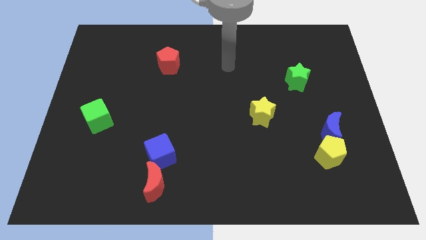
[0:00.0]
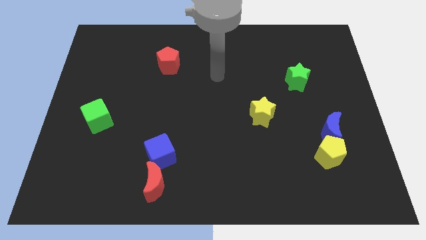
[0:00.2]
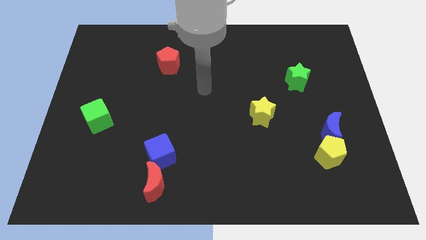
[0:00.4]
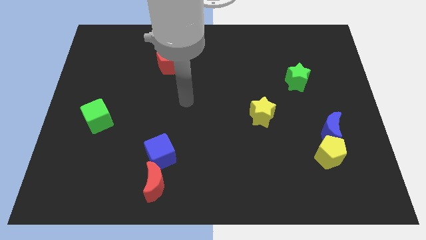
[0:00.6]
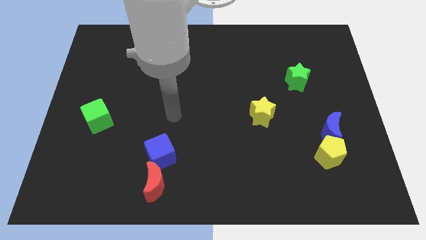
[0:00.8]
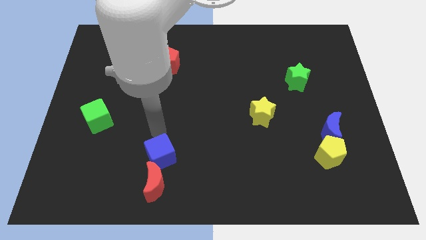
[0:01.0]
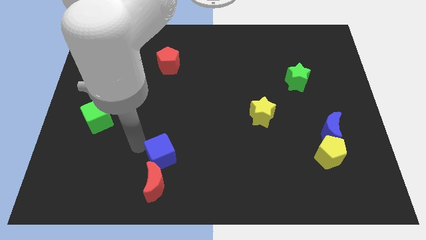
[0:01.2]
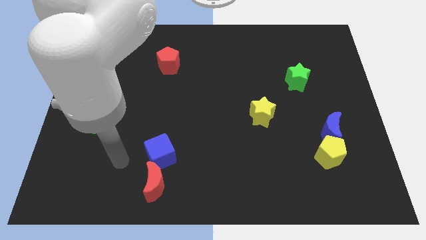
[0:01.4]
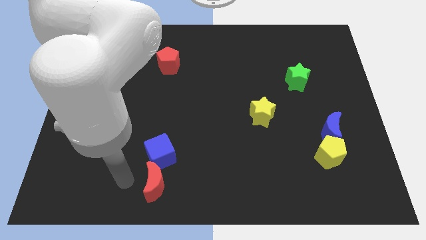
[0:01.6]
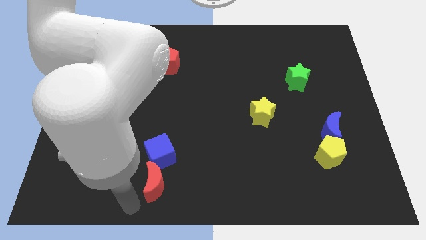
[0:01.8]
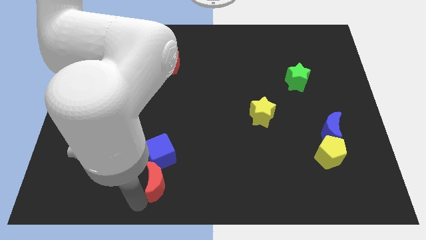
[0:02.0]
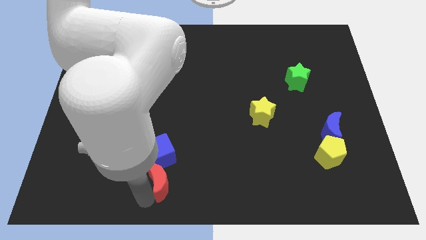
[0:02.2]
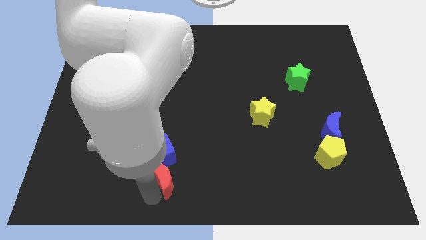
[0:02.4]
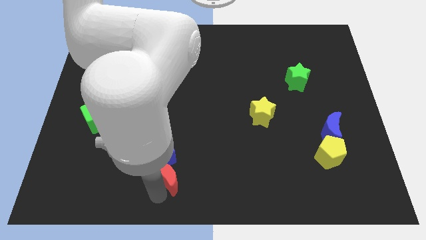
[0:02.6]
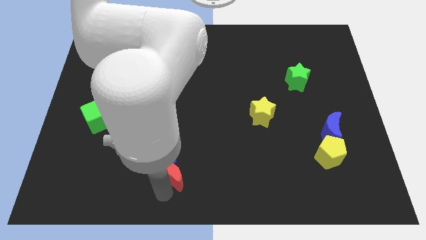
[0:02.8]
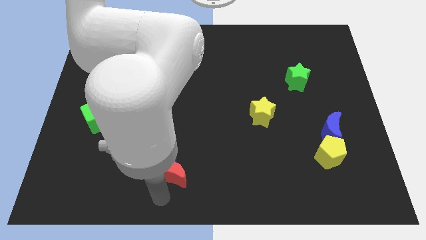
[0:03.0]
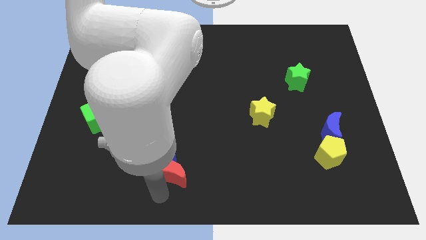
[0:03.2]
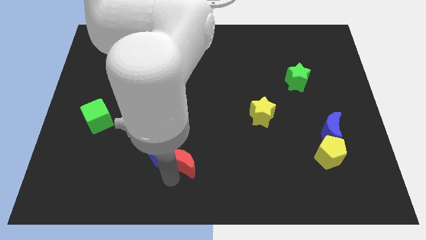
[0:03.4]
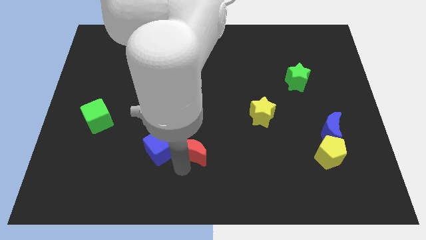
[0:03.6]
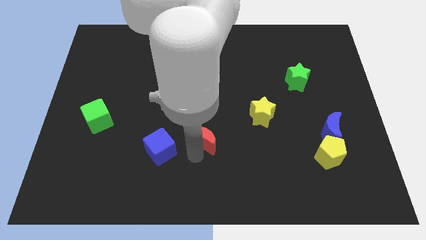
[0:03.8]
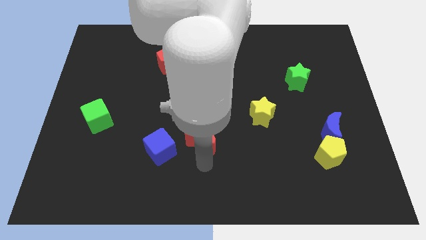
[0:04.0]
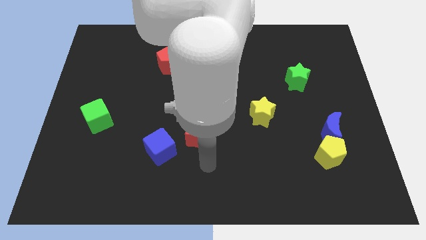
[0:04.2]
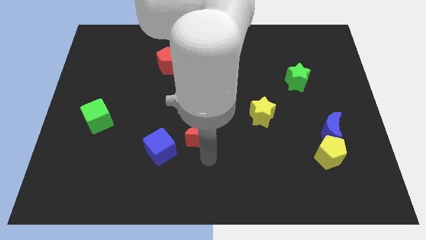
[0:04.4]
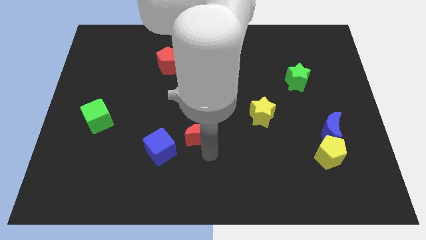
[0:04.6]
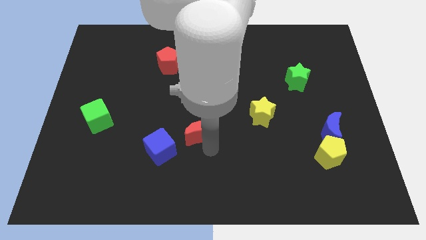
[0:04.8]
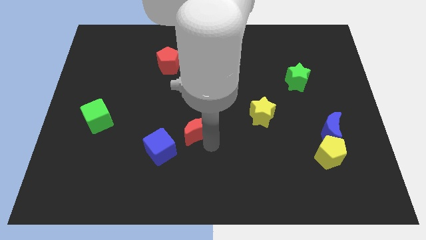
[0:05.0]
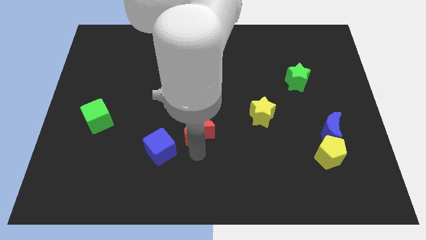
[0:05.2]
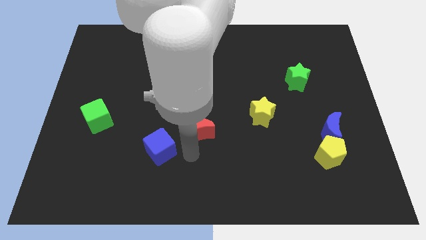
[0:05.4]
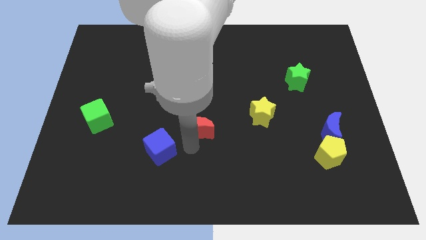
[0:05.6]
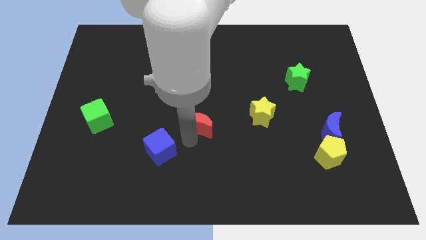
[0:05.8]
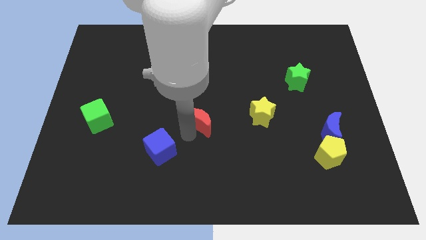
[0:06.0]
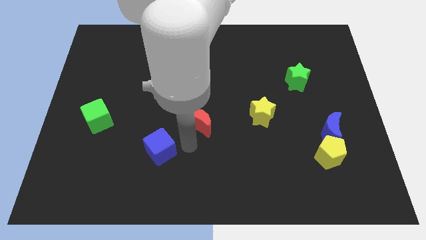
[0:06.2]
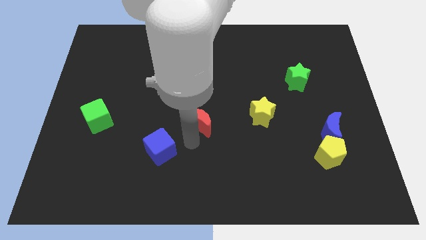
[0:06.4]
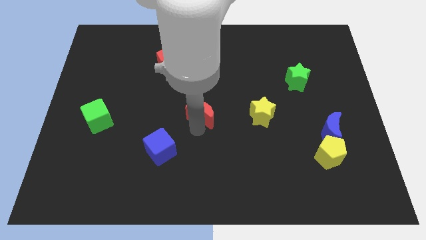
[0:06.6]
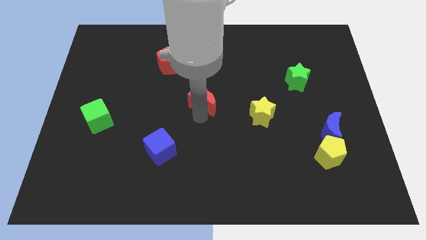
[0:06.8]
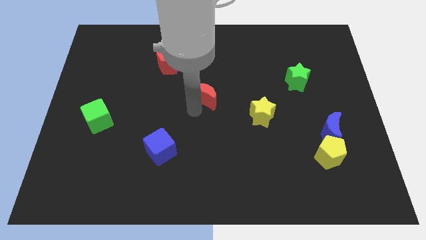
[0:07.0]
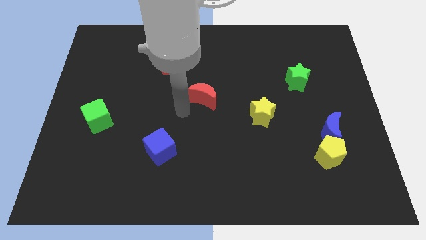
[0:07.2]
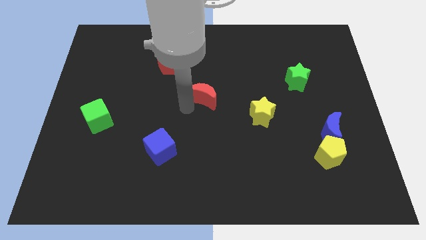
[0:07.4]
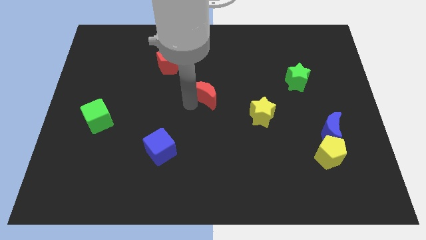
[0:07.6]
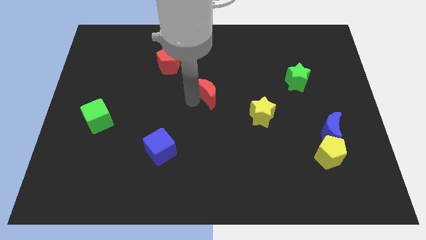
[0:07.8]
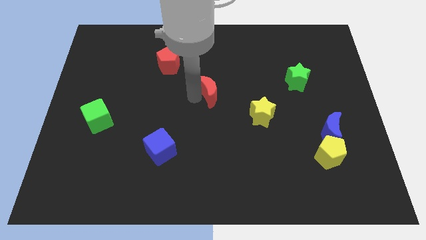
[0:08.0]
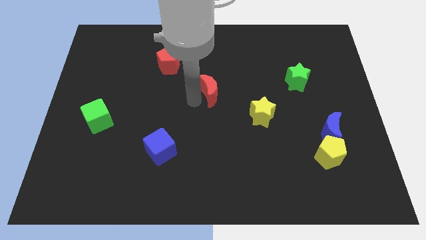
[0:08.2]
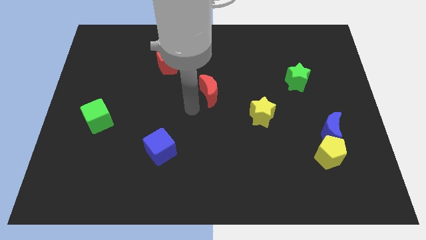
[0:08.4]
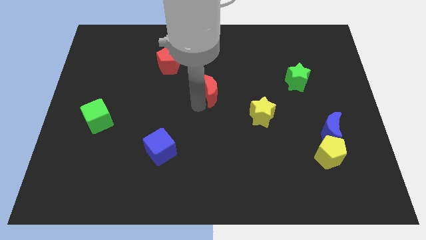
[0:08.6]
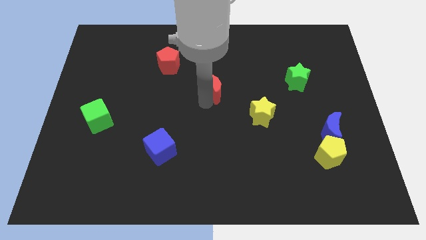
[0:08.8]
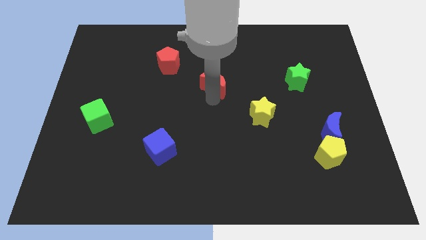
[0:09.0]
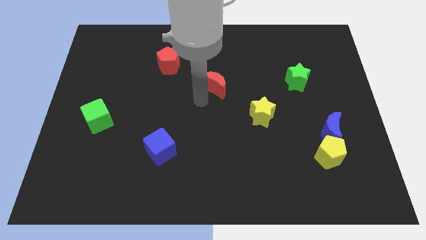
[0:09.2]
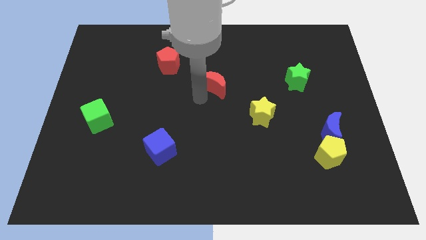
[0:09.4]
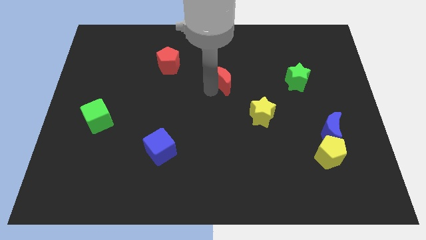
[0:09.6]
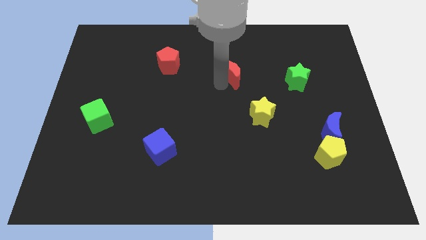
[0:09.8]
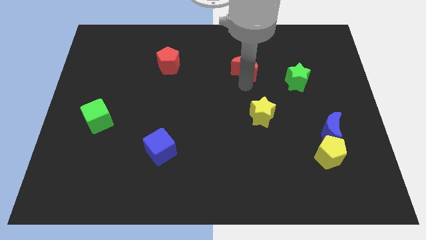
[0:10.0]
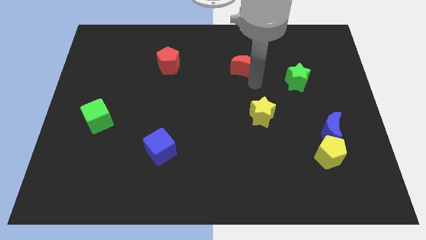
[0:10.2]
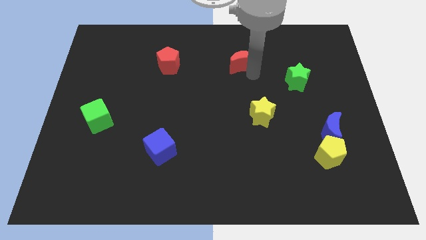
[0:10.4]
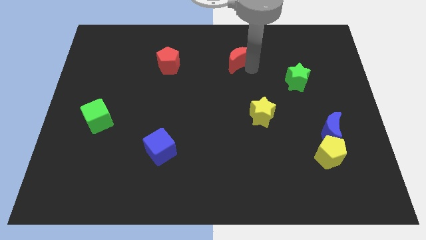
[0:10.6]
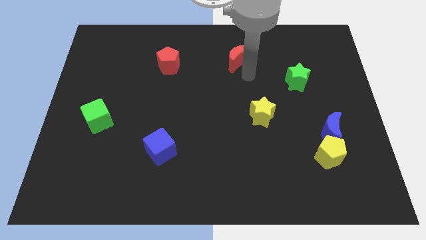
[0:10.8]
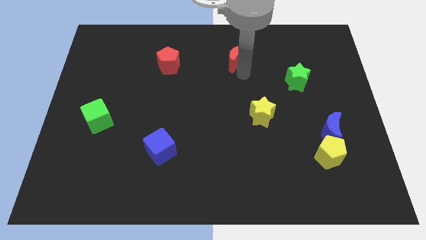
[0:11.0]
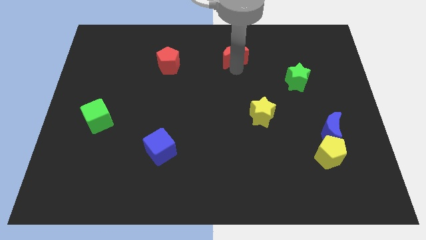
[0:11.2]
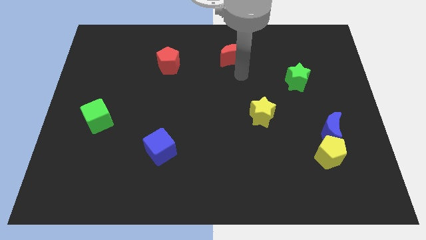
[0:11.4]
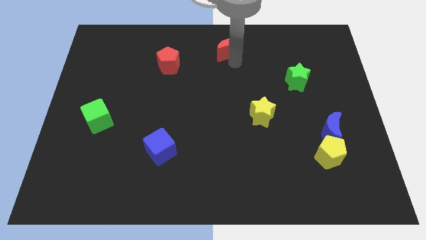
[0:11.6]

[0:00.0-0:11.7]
push the red moon to the top

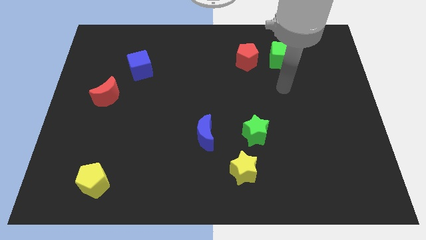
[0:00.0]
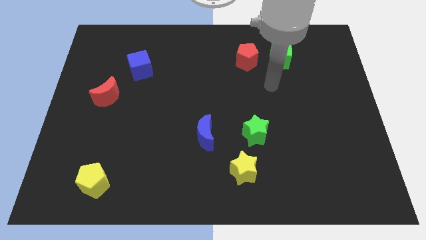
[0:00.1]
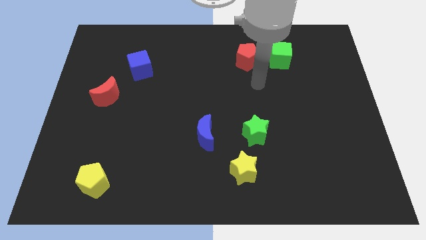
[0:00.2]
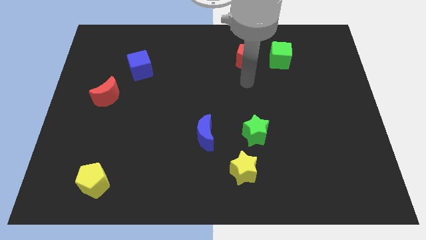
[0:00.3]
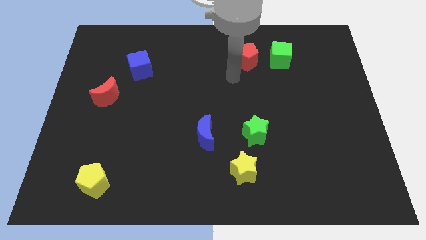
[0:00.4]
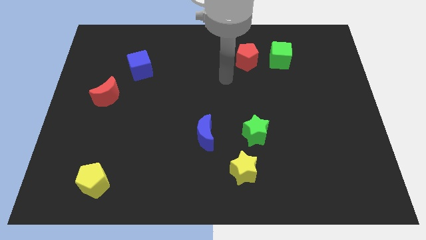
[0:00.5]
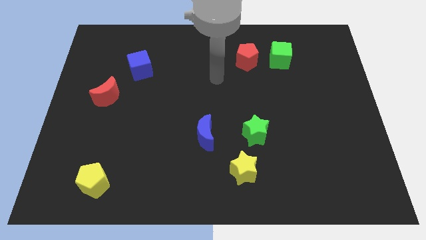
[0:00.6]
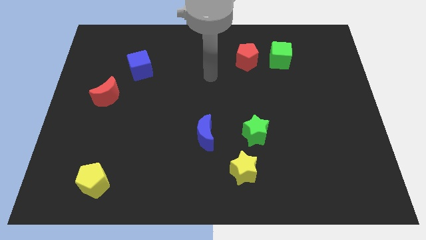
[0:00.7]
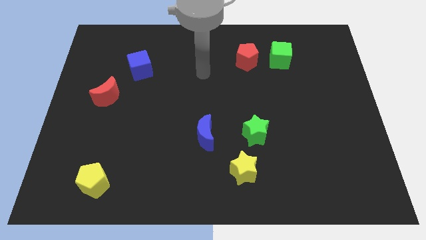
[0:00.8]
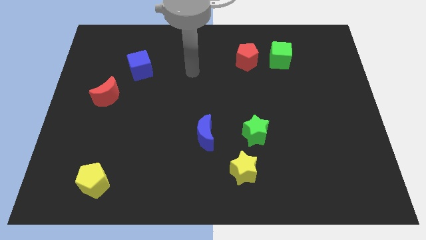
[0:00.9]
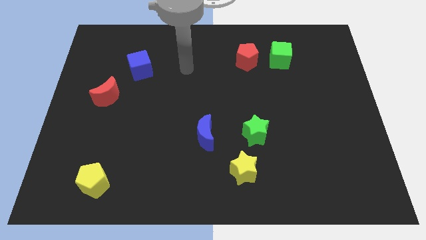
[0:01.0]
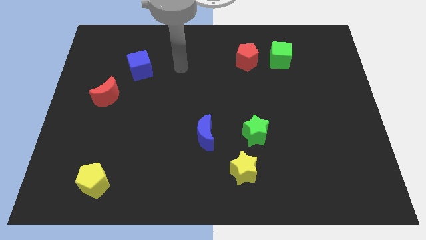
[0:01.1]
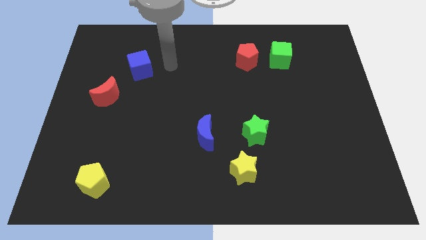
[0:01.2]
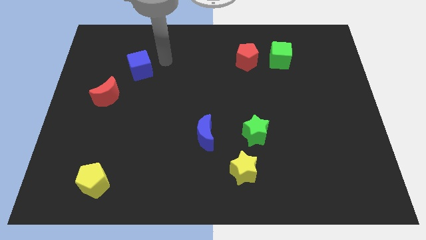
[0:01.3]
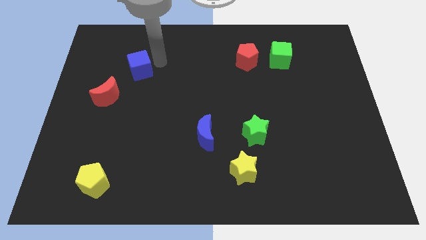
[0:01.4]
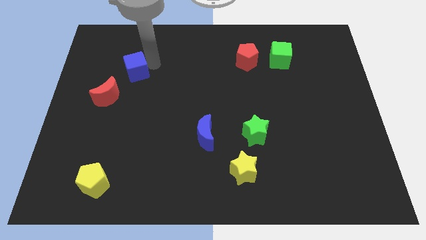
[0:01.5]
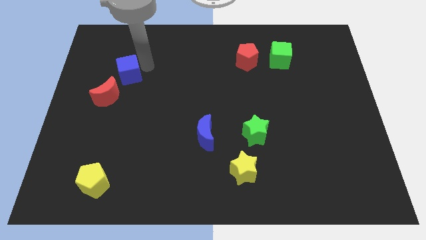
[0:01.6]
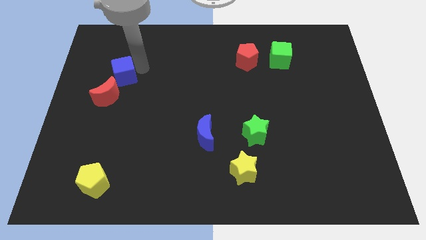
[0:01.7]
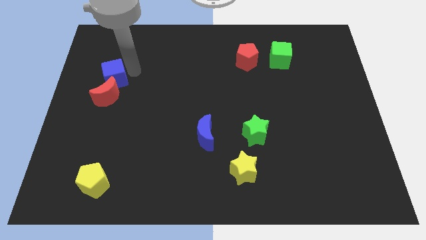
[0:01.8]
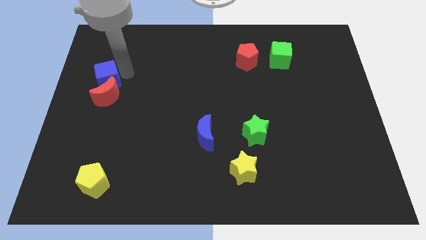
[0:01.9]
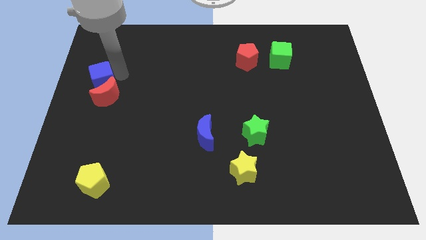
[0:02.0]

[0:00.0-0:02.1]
push the blue cube to the left side
